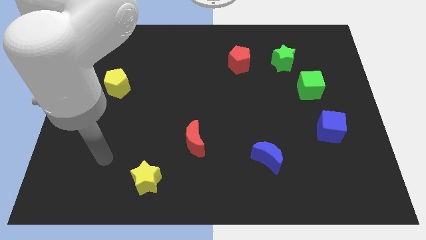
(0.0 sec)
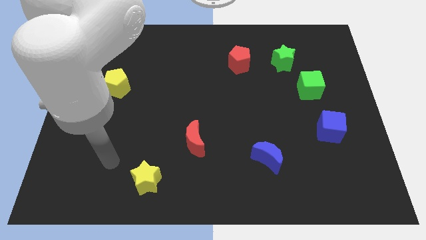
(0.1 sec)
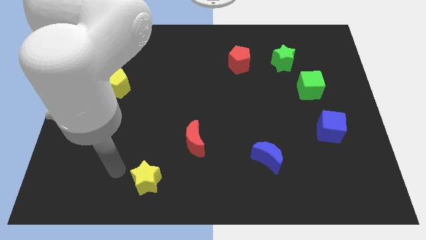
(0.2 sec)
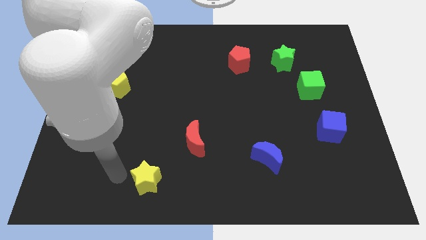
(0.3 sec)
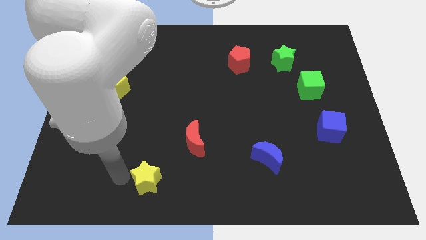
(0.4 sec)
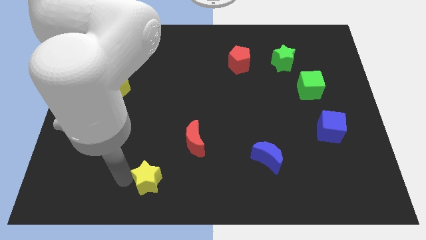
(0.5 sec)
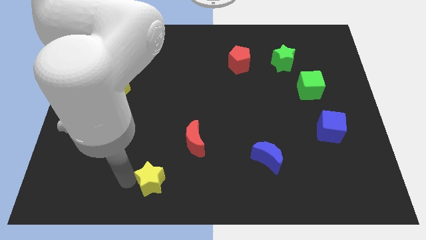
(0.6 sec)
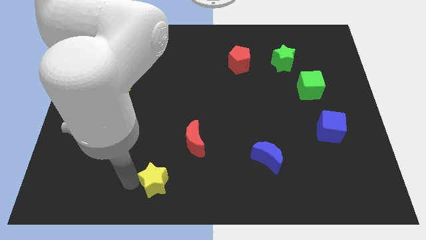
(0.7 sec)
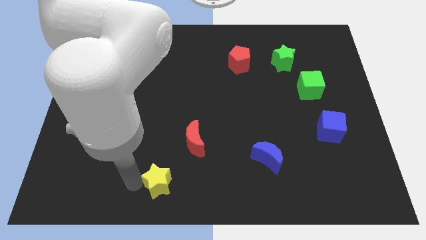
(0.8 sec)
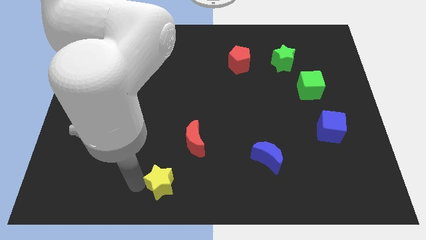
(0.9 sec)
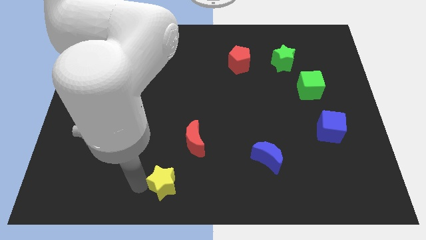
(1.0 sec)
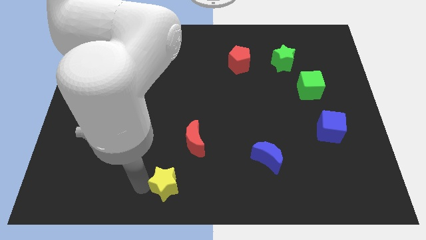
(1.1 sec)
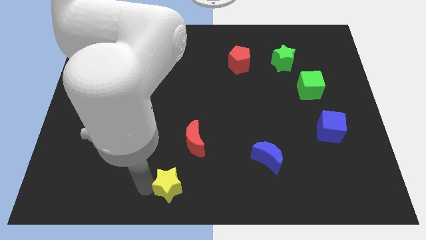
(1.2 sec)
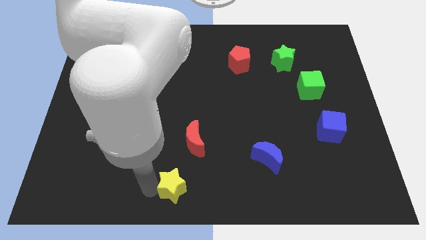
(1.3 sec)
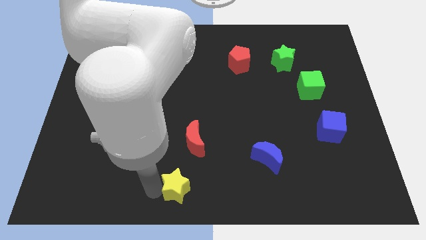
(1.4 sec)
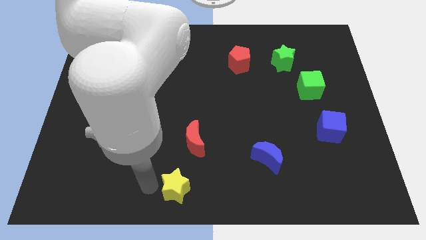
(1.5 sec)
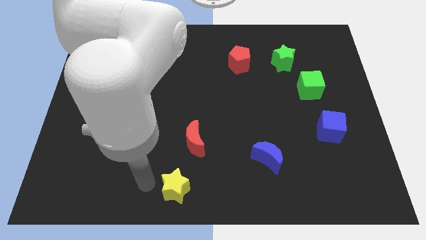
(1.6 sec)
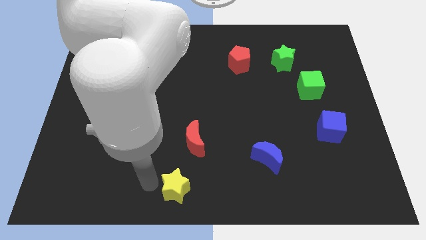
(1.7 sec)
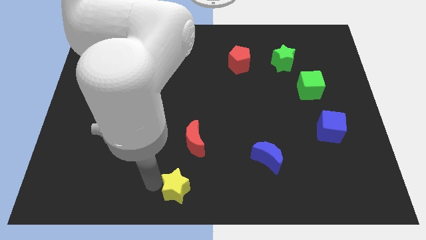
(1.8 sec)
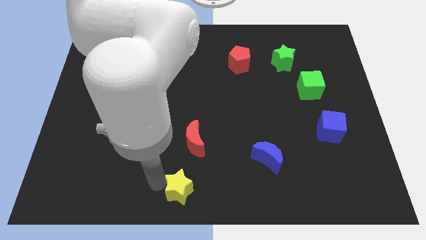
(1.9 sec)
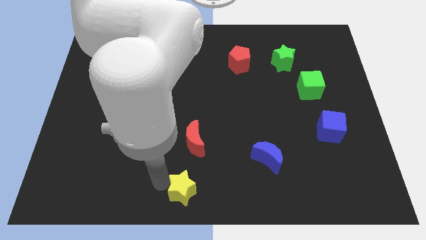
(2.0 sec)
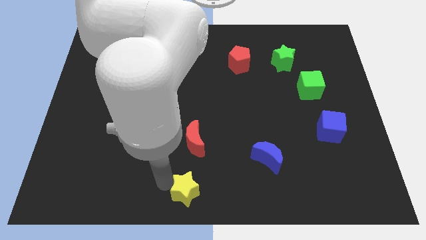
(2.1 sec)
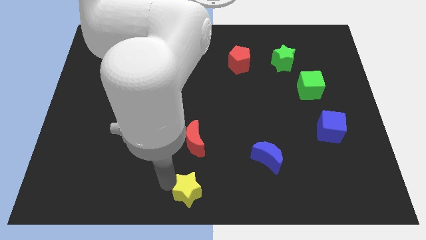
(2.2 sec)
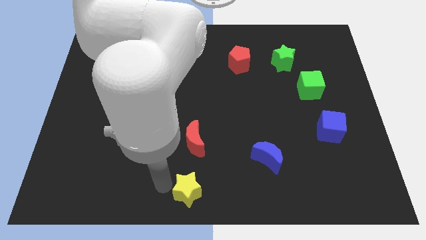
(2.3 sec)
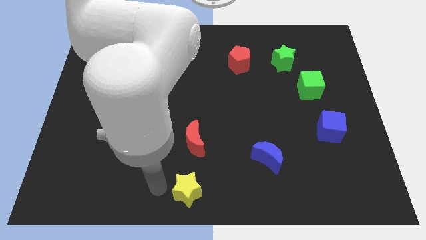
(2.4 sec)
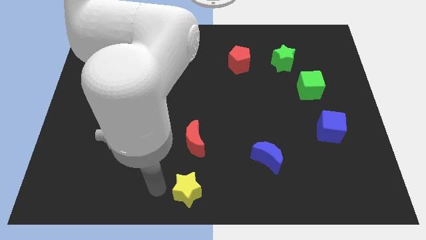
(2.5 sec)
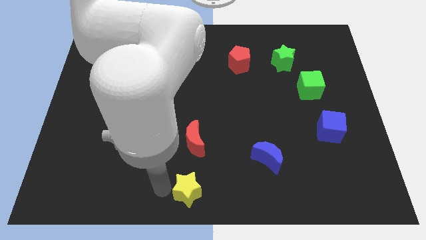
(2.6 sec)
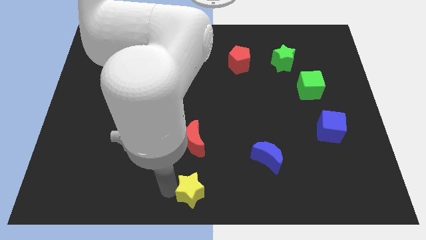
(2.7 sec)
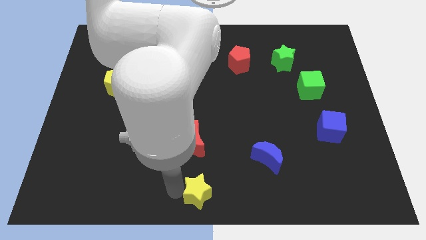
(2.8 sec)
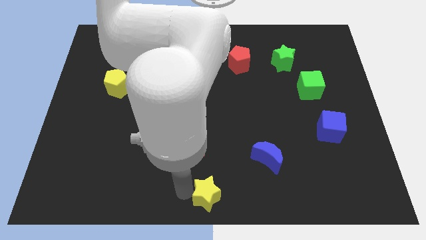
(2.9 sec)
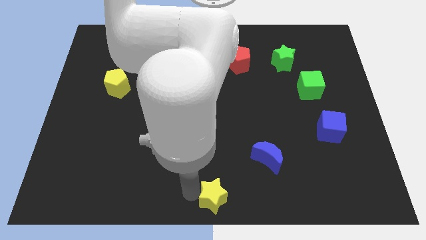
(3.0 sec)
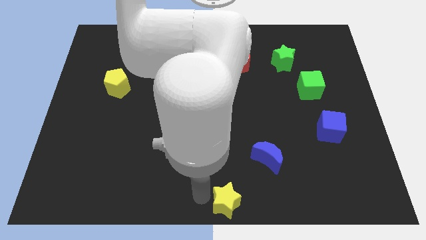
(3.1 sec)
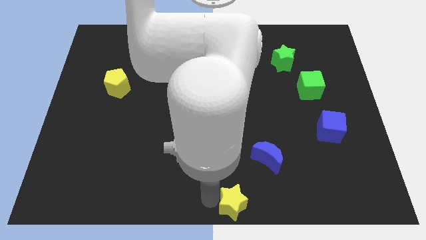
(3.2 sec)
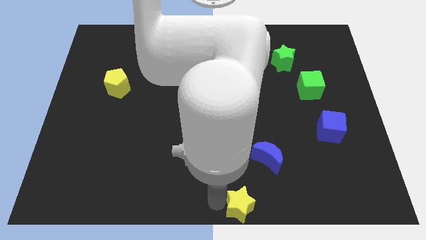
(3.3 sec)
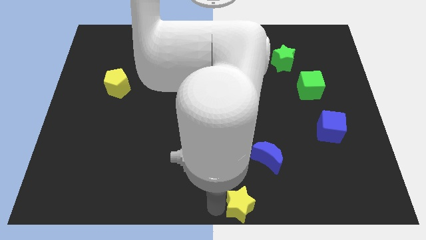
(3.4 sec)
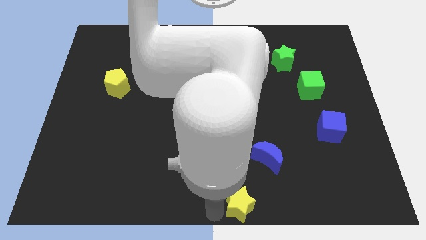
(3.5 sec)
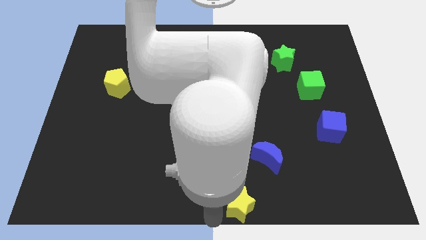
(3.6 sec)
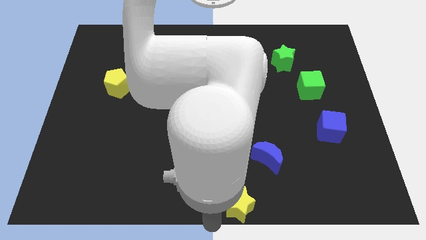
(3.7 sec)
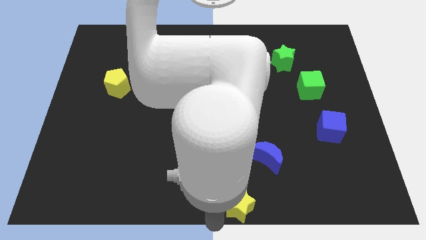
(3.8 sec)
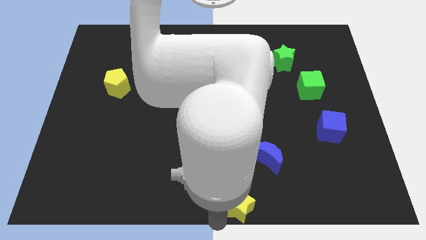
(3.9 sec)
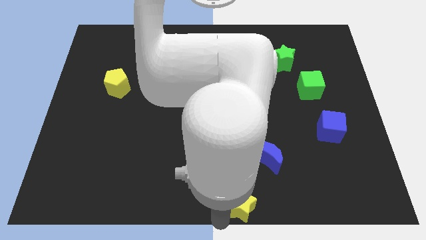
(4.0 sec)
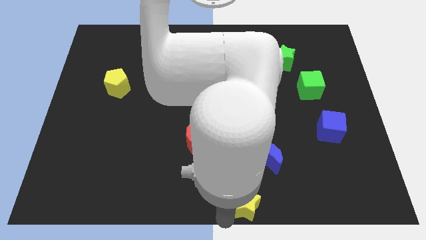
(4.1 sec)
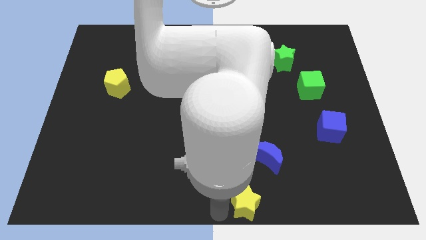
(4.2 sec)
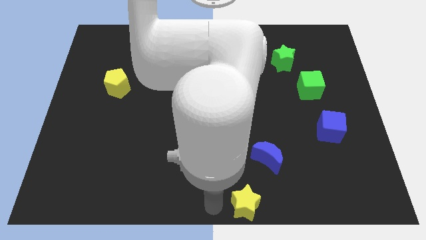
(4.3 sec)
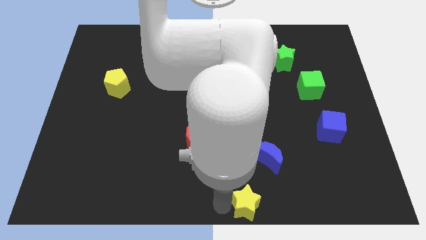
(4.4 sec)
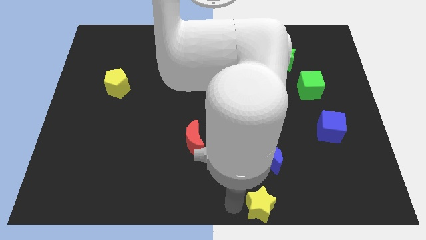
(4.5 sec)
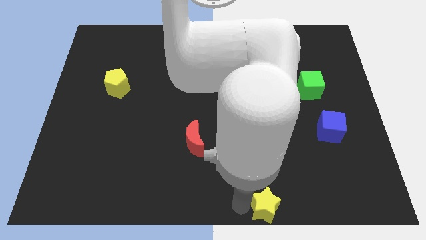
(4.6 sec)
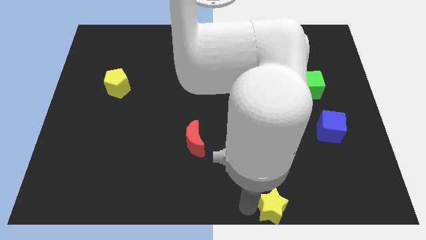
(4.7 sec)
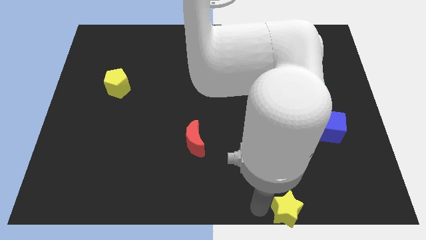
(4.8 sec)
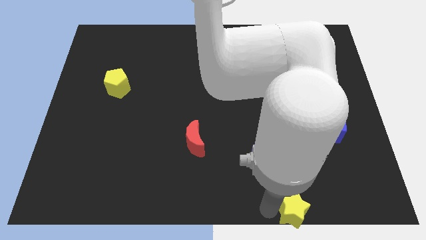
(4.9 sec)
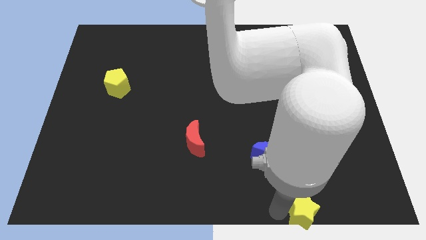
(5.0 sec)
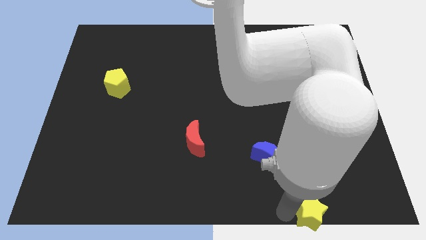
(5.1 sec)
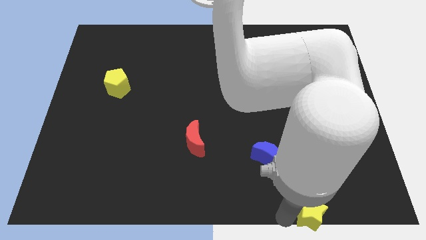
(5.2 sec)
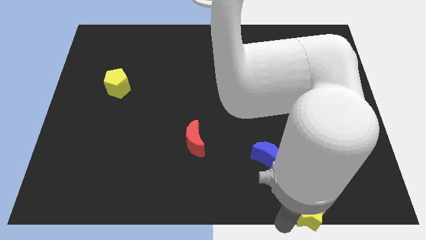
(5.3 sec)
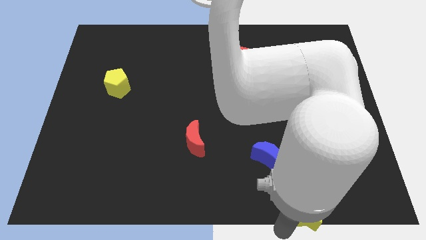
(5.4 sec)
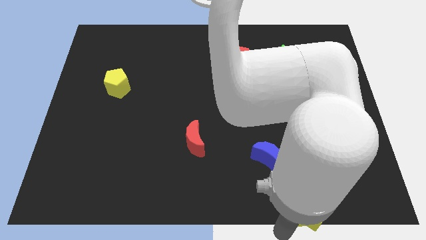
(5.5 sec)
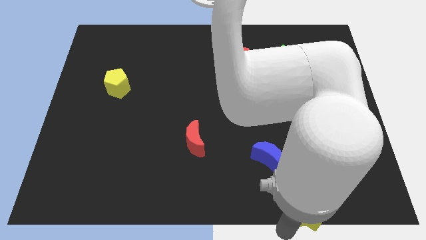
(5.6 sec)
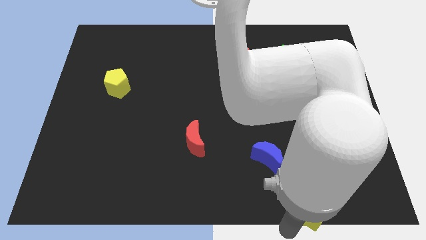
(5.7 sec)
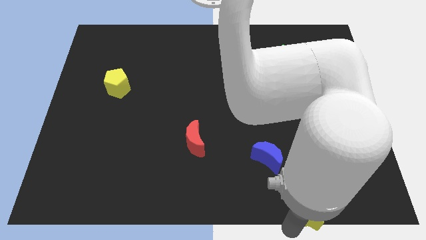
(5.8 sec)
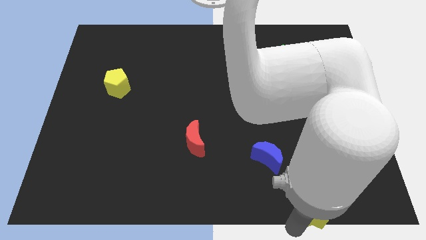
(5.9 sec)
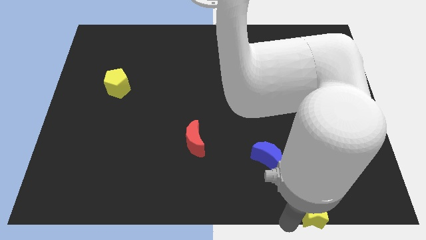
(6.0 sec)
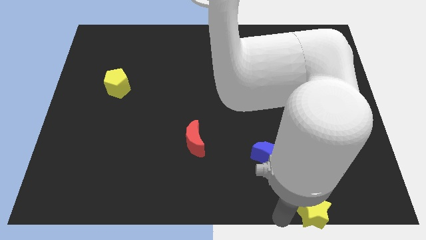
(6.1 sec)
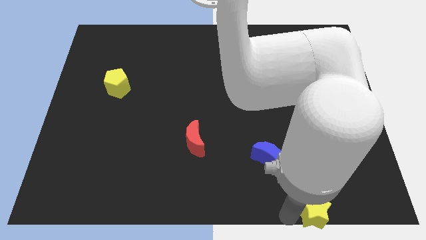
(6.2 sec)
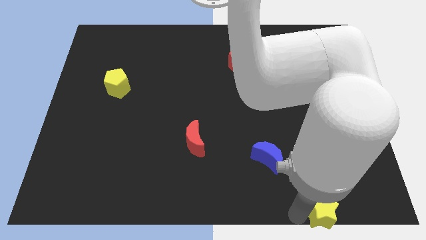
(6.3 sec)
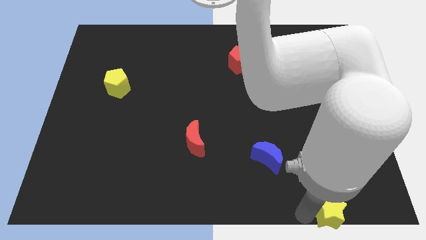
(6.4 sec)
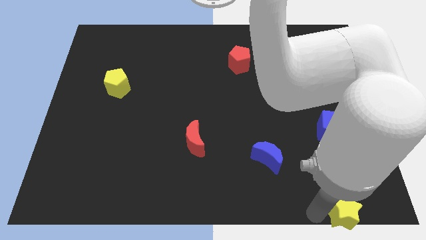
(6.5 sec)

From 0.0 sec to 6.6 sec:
put the yellow star to the bottom right corner
